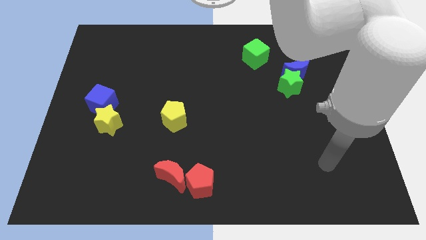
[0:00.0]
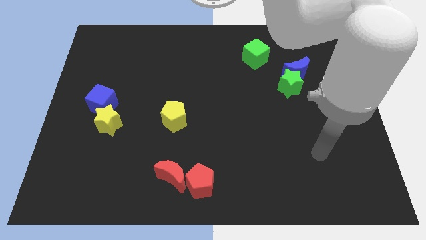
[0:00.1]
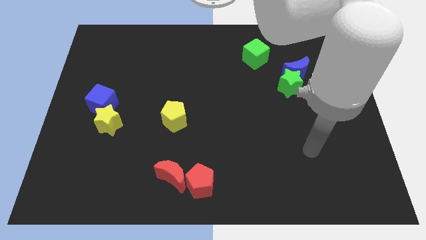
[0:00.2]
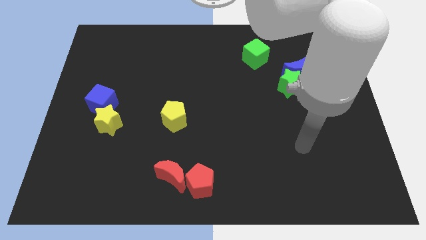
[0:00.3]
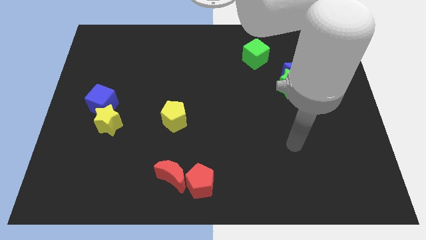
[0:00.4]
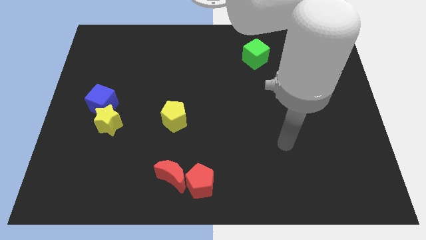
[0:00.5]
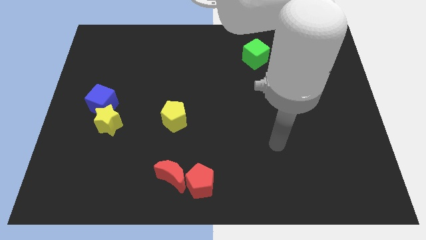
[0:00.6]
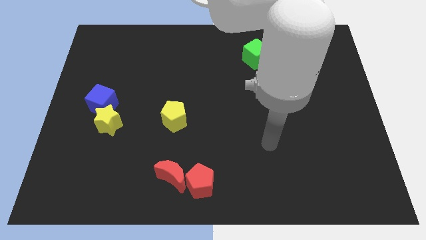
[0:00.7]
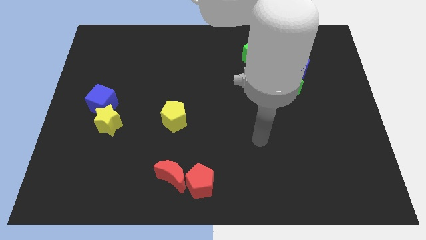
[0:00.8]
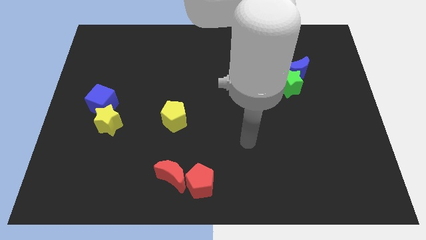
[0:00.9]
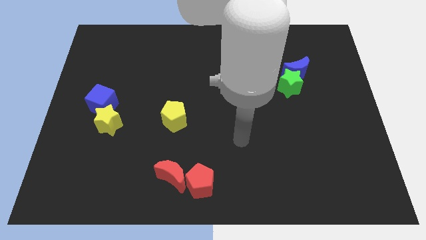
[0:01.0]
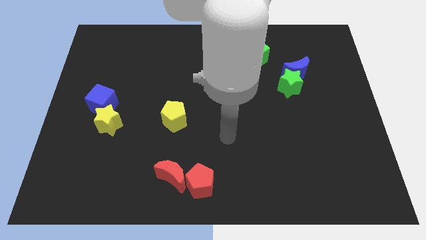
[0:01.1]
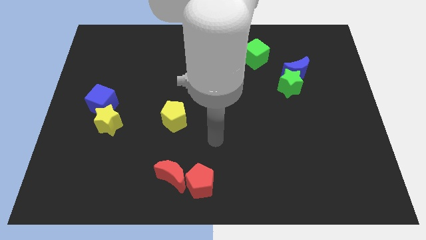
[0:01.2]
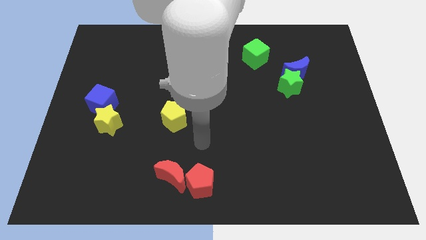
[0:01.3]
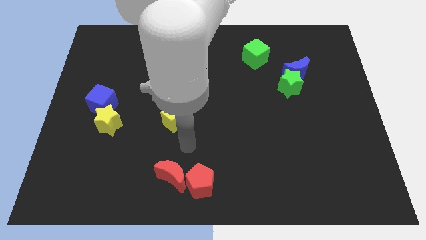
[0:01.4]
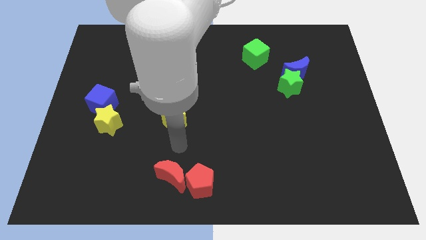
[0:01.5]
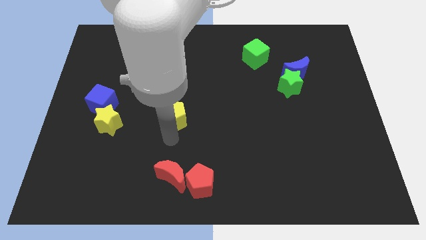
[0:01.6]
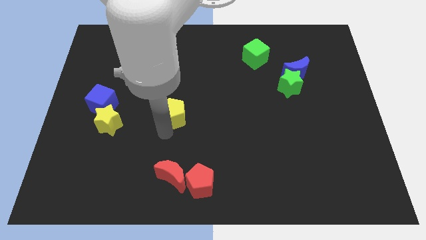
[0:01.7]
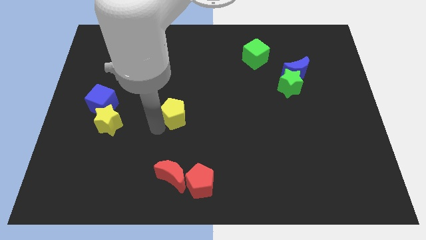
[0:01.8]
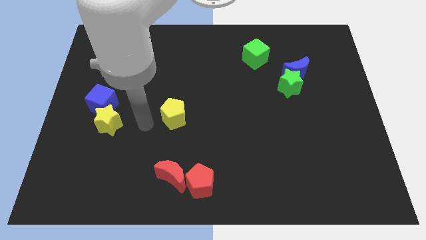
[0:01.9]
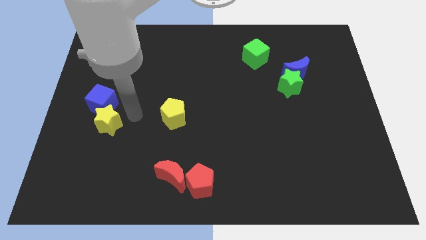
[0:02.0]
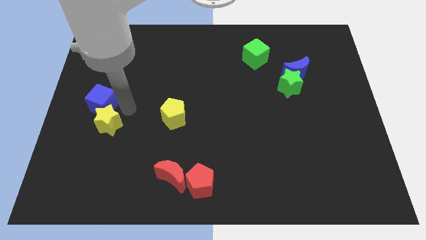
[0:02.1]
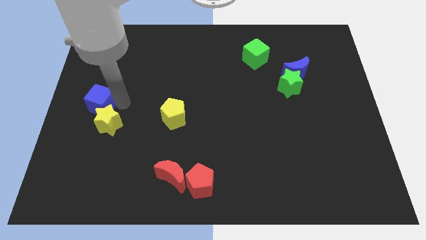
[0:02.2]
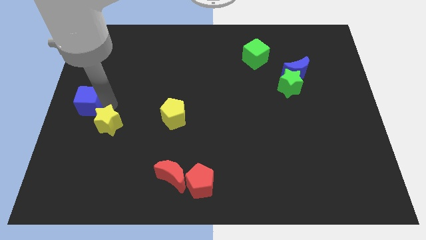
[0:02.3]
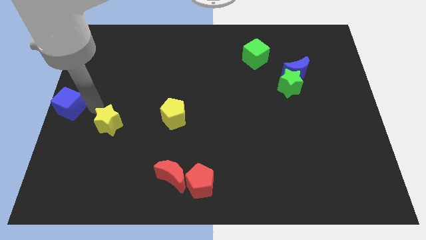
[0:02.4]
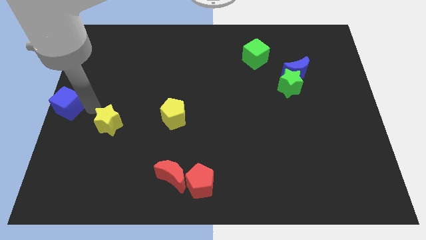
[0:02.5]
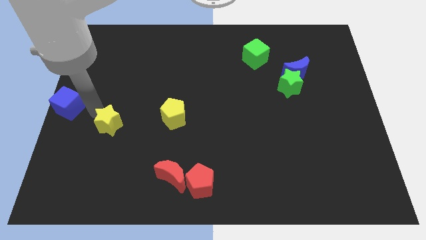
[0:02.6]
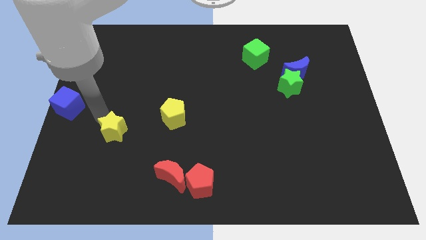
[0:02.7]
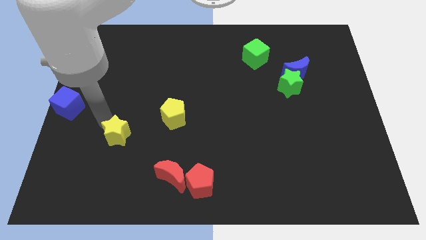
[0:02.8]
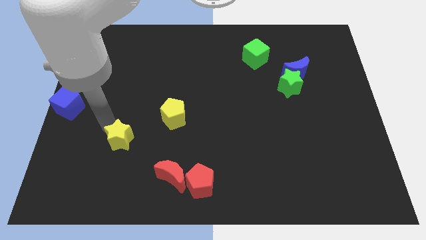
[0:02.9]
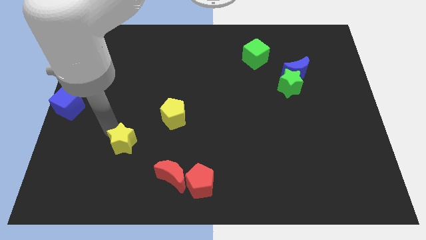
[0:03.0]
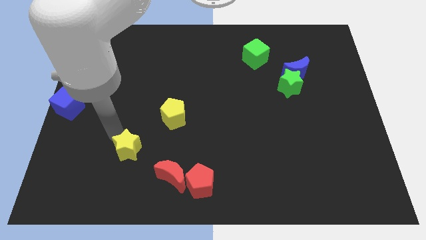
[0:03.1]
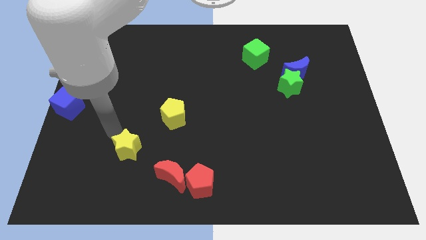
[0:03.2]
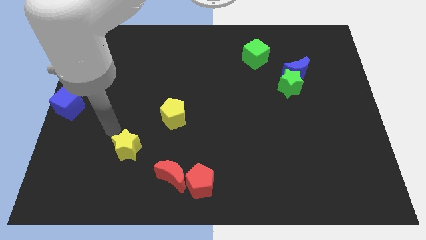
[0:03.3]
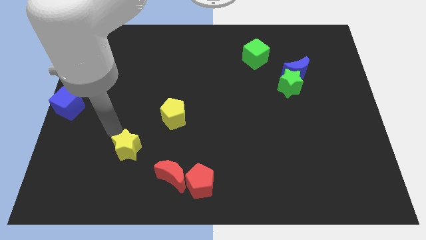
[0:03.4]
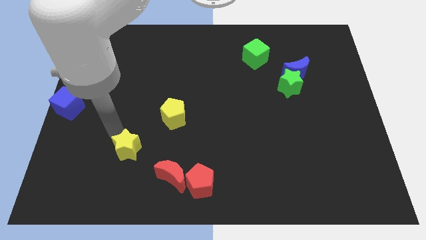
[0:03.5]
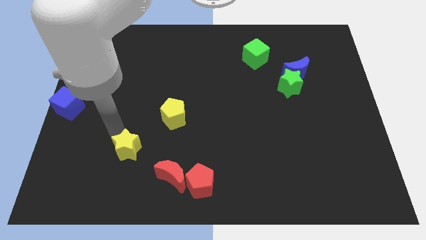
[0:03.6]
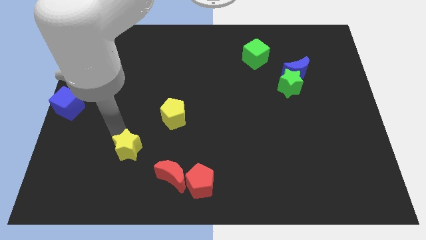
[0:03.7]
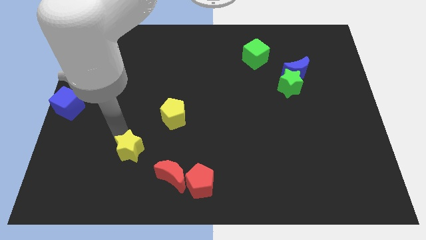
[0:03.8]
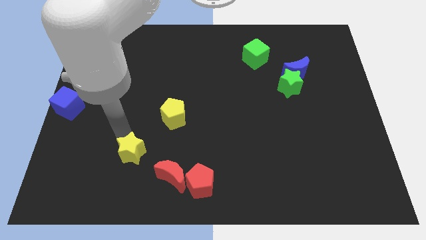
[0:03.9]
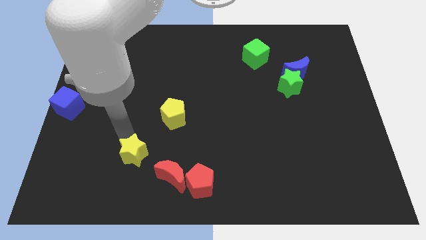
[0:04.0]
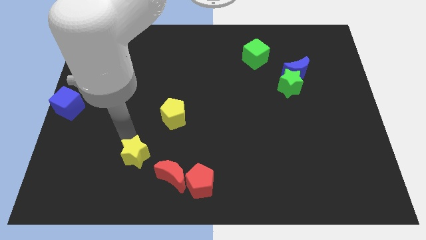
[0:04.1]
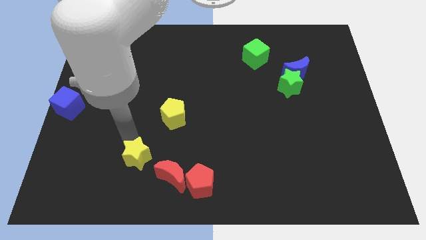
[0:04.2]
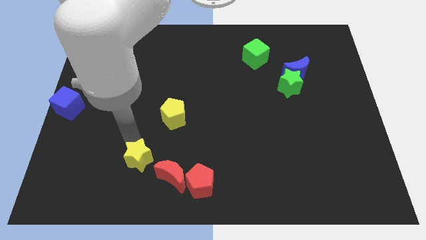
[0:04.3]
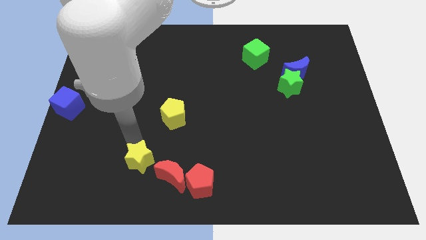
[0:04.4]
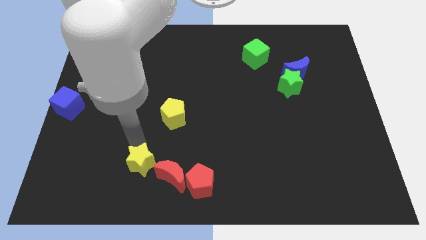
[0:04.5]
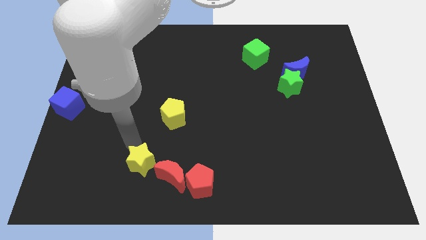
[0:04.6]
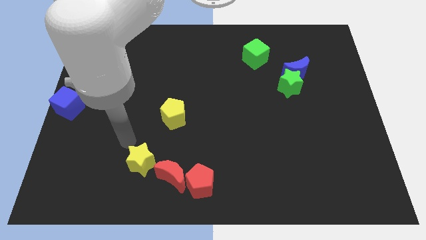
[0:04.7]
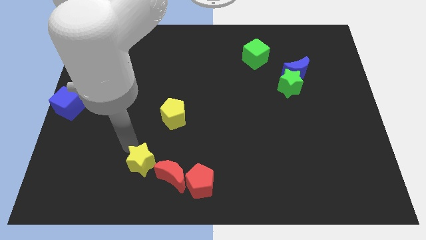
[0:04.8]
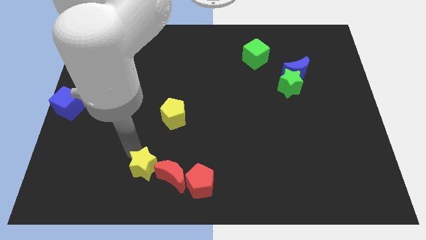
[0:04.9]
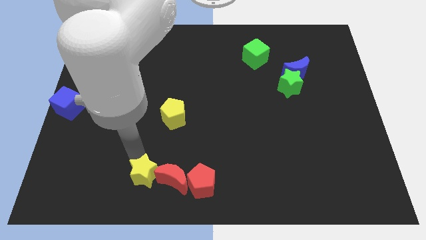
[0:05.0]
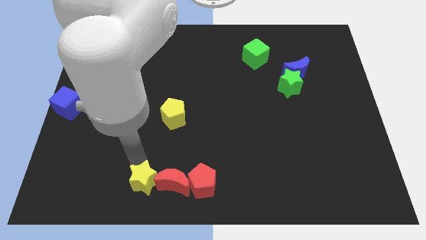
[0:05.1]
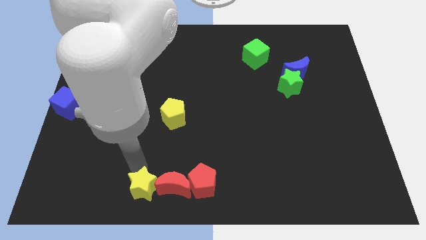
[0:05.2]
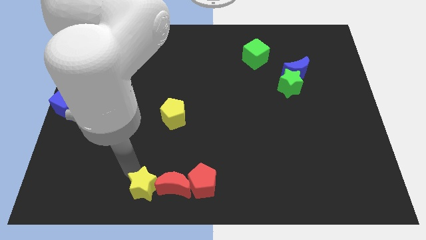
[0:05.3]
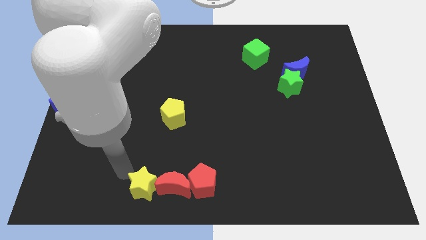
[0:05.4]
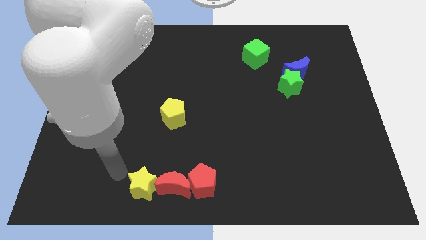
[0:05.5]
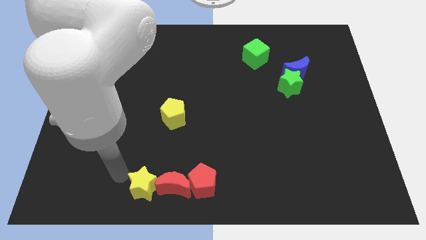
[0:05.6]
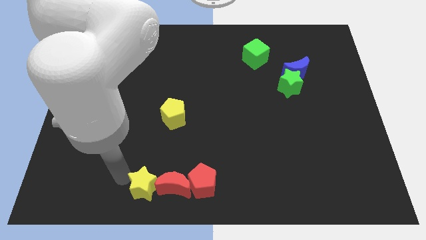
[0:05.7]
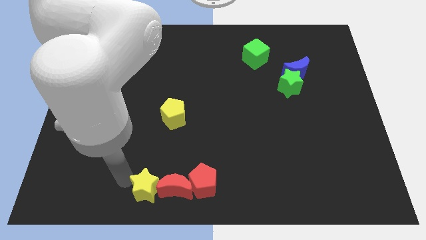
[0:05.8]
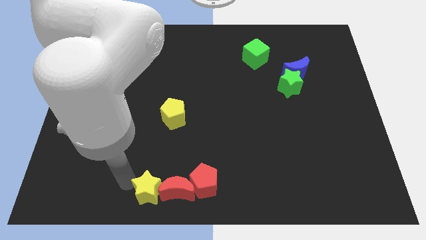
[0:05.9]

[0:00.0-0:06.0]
move the yellow star to the bottom side
